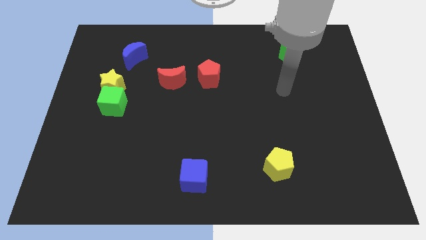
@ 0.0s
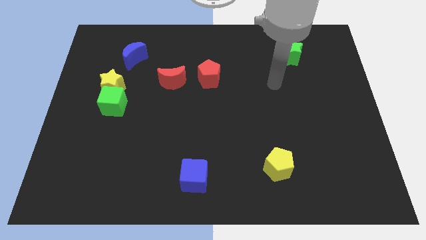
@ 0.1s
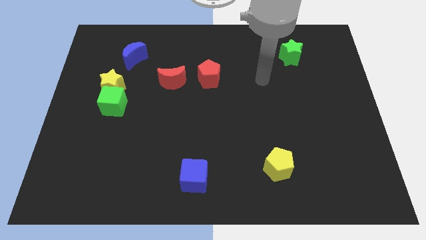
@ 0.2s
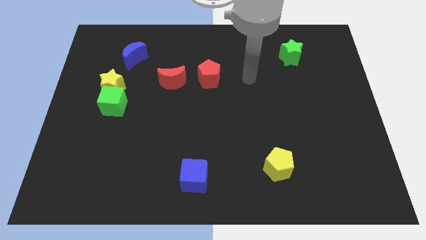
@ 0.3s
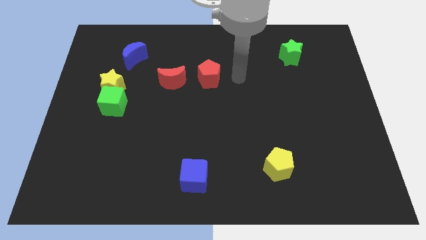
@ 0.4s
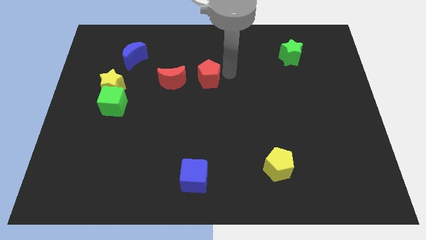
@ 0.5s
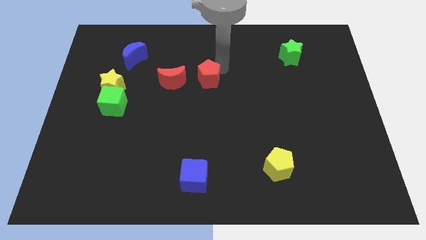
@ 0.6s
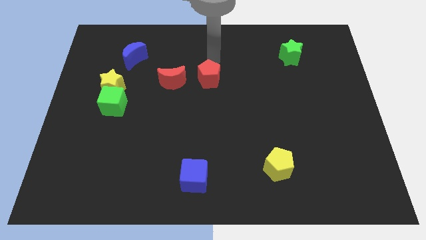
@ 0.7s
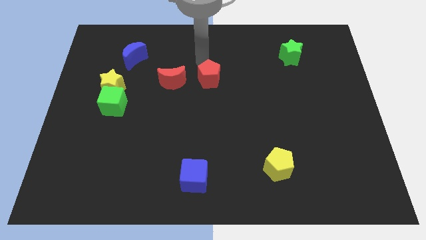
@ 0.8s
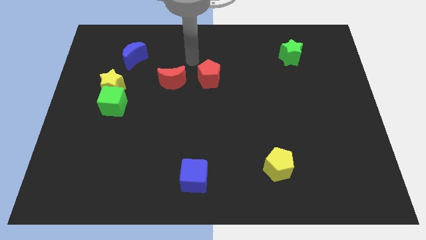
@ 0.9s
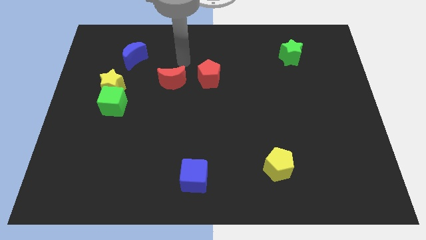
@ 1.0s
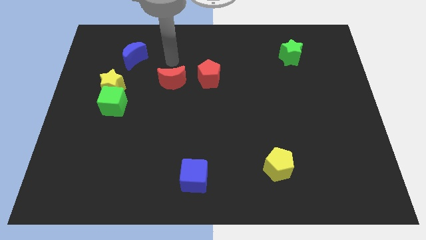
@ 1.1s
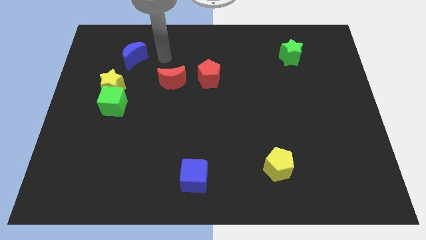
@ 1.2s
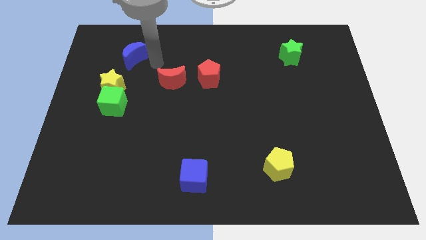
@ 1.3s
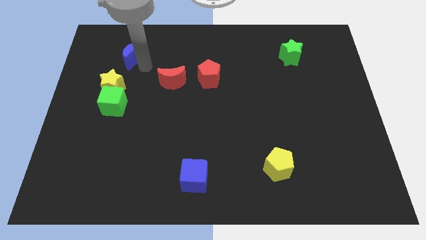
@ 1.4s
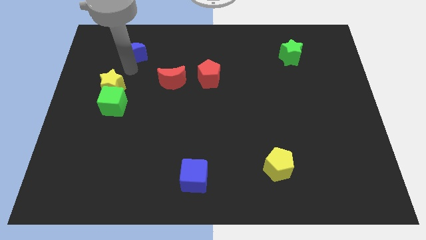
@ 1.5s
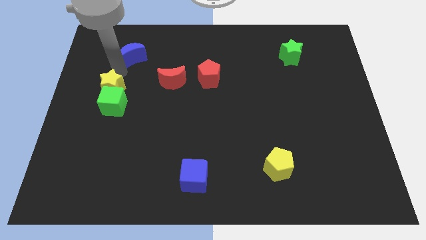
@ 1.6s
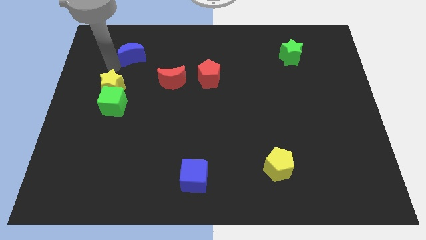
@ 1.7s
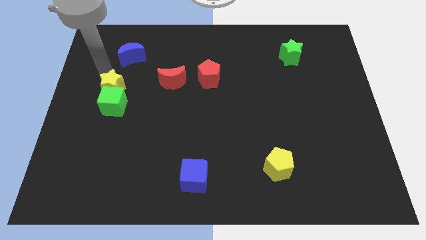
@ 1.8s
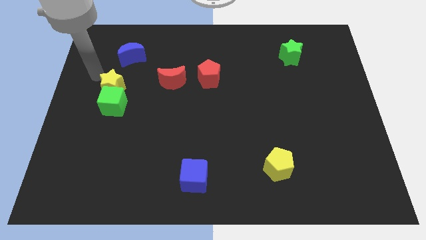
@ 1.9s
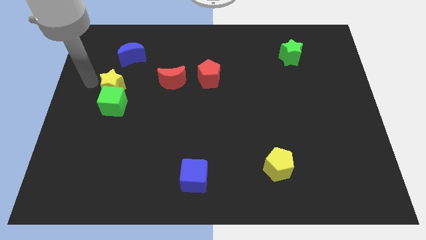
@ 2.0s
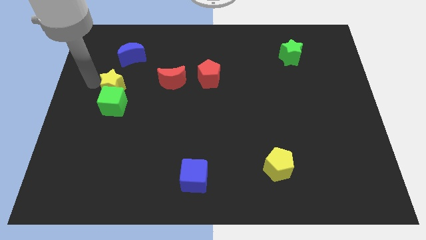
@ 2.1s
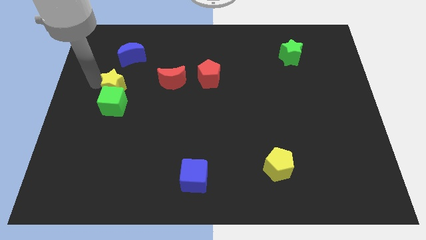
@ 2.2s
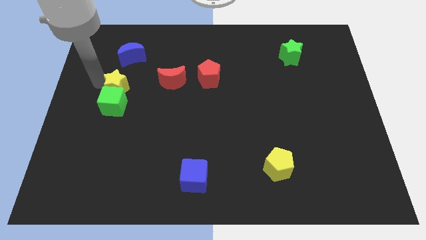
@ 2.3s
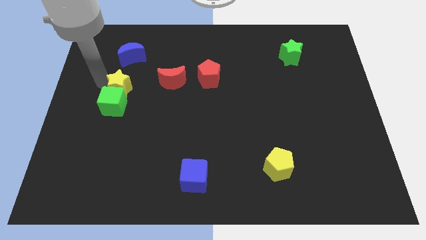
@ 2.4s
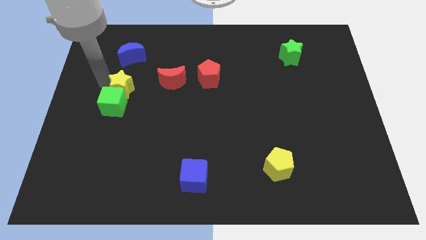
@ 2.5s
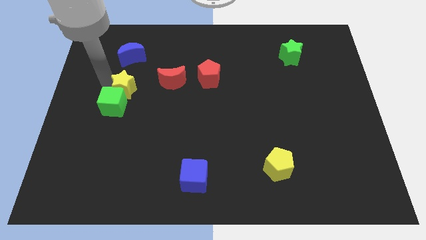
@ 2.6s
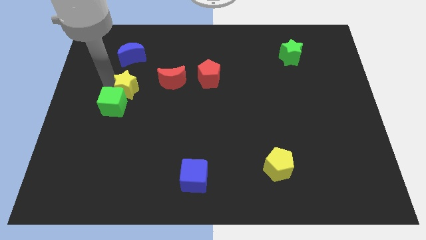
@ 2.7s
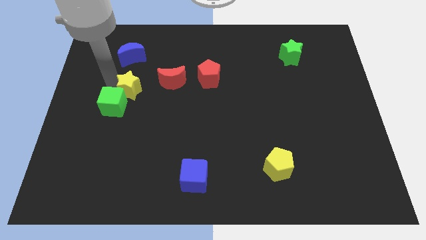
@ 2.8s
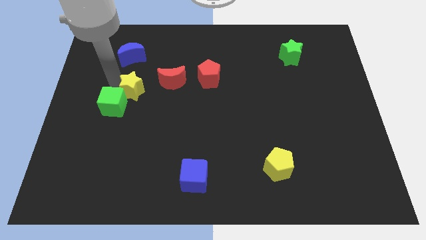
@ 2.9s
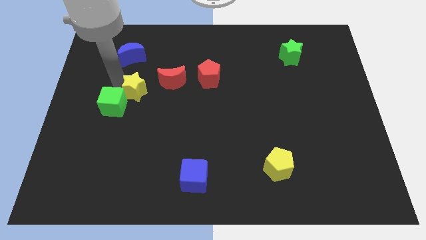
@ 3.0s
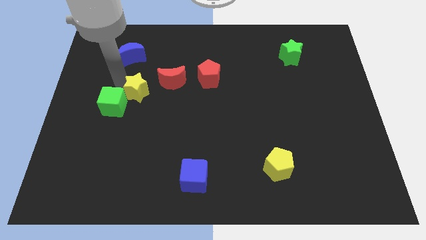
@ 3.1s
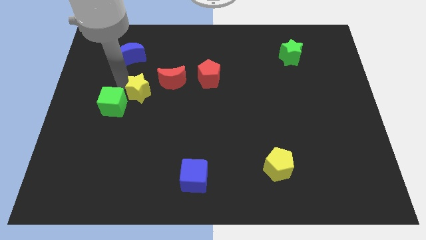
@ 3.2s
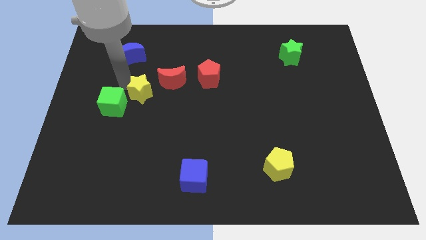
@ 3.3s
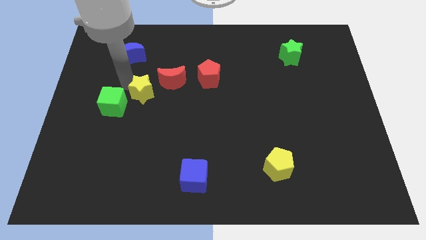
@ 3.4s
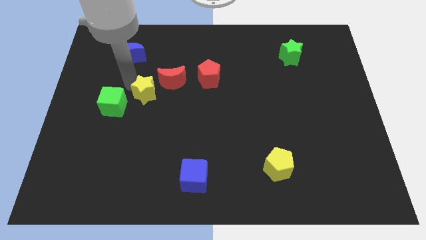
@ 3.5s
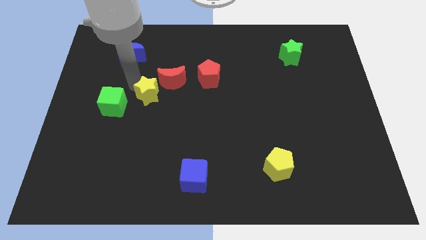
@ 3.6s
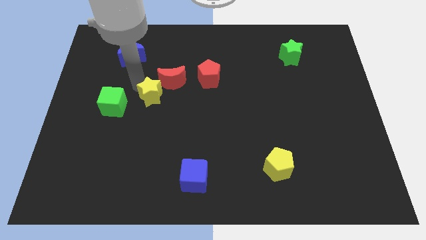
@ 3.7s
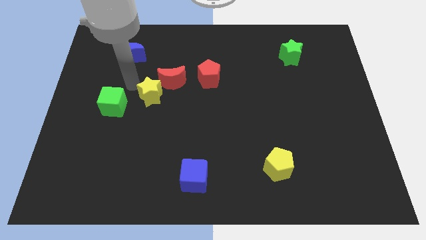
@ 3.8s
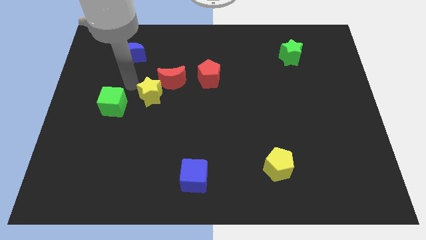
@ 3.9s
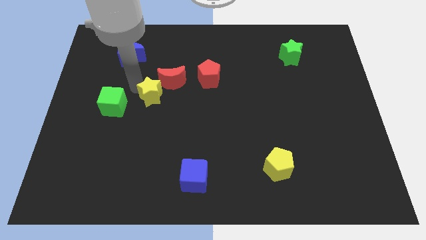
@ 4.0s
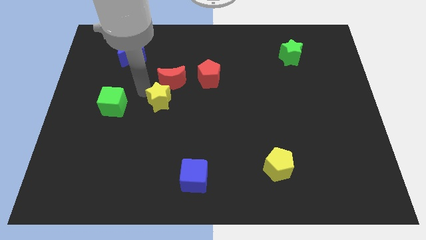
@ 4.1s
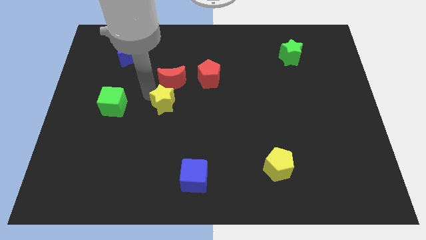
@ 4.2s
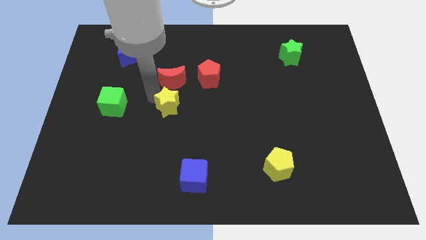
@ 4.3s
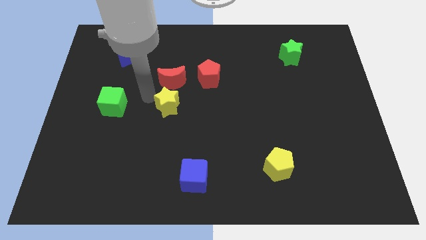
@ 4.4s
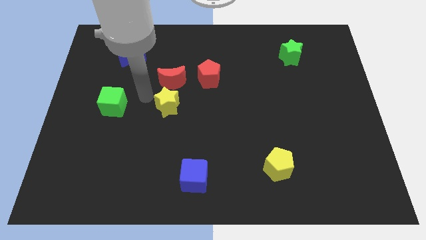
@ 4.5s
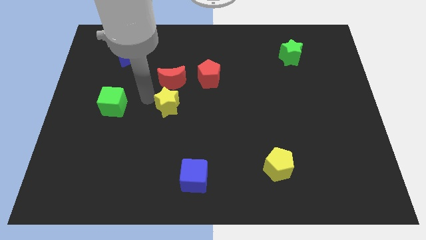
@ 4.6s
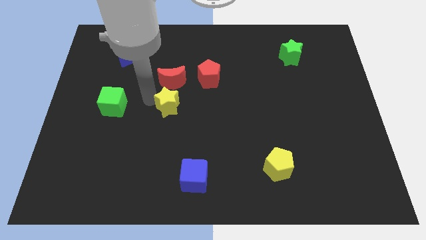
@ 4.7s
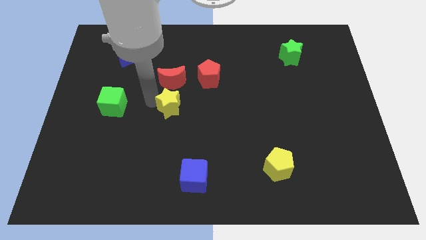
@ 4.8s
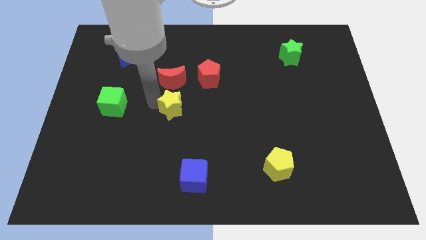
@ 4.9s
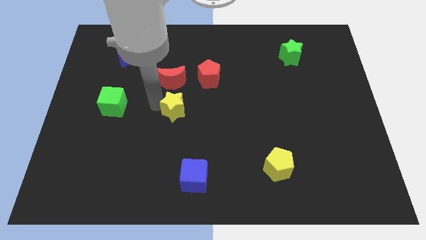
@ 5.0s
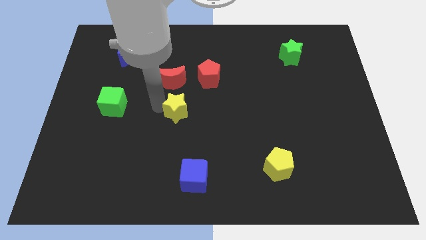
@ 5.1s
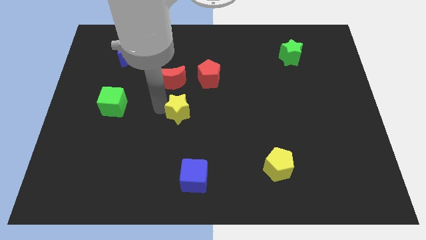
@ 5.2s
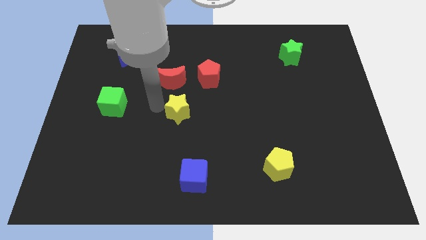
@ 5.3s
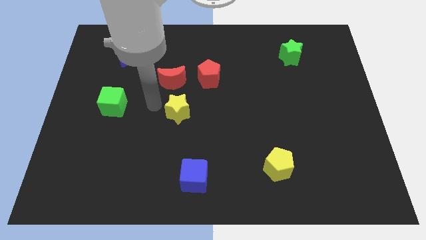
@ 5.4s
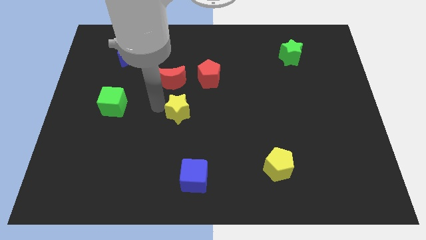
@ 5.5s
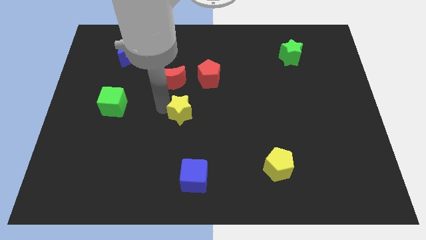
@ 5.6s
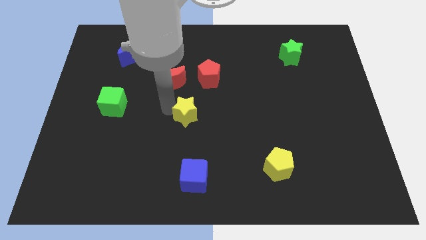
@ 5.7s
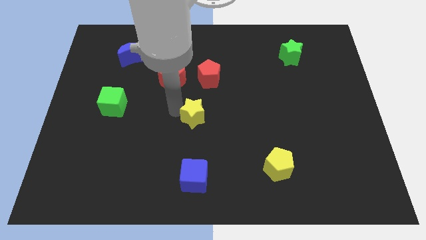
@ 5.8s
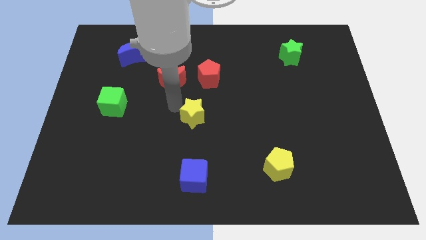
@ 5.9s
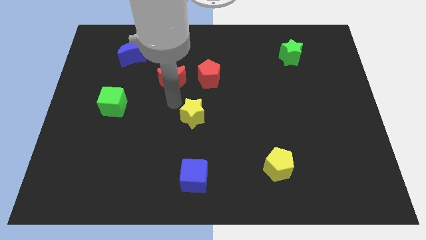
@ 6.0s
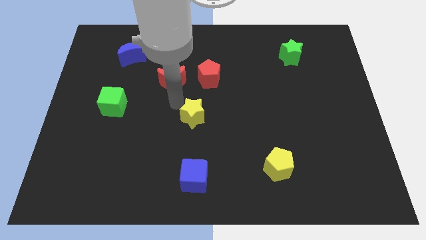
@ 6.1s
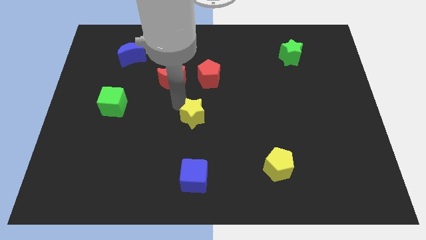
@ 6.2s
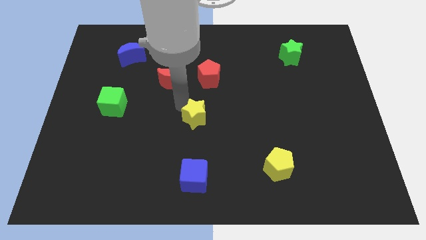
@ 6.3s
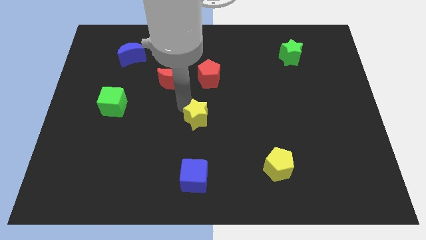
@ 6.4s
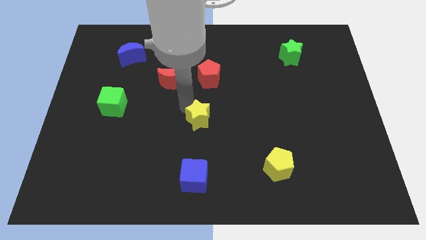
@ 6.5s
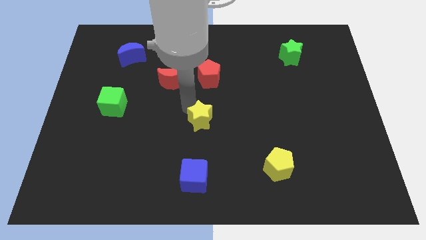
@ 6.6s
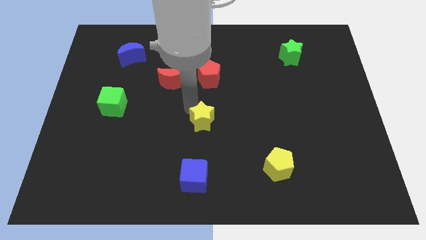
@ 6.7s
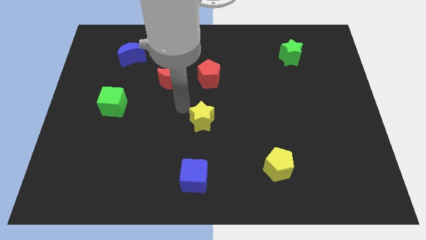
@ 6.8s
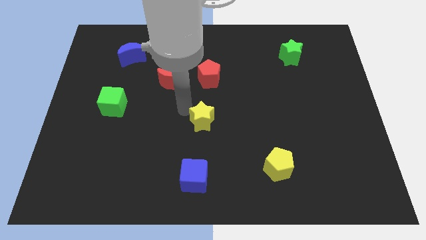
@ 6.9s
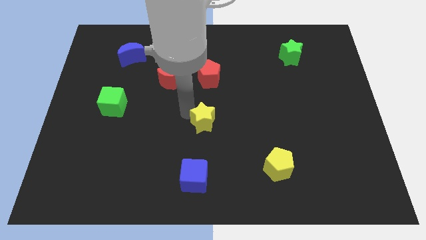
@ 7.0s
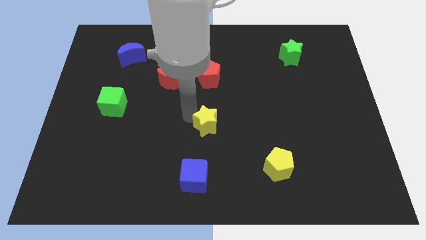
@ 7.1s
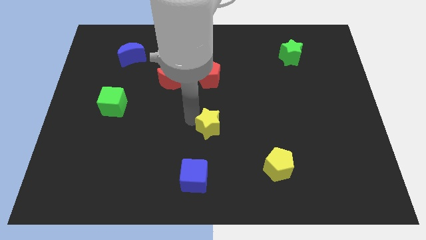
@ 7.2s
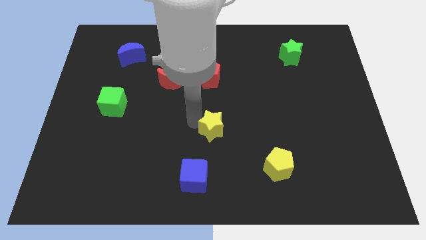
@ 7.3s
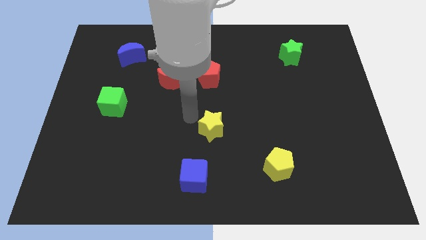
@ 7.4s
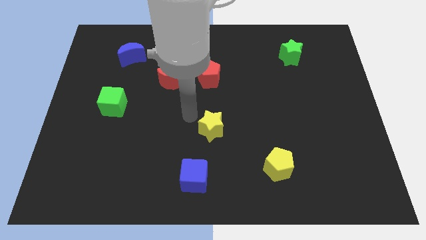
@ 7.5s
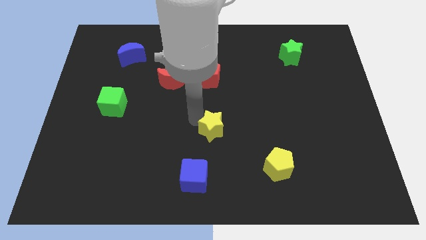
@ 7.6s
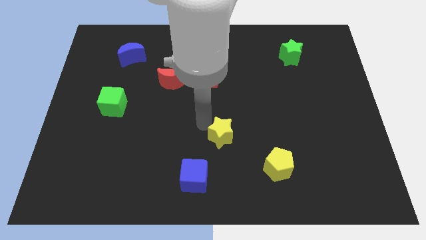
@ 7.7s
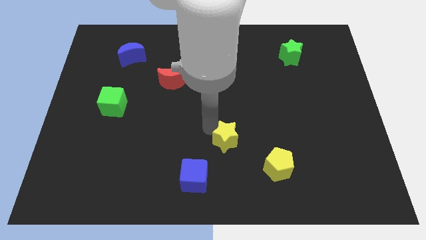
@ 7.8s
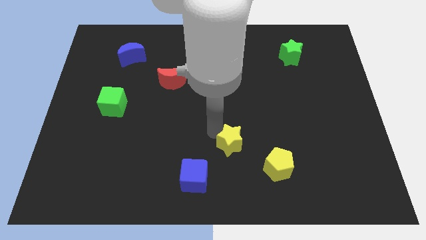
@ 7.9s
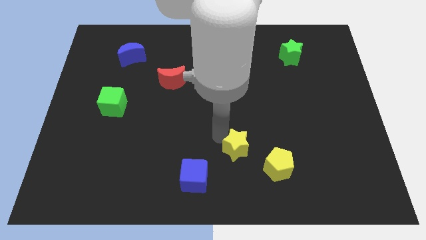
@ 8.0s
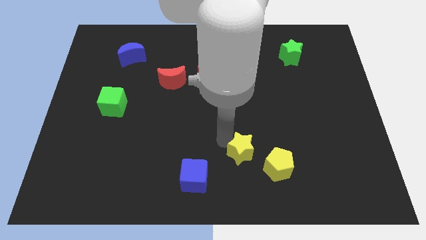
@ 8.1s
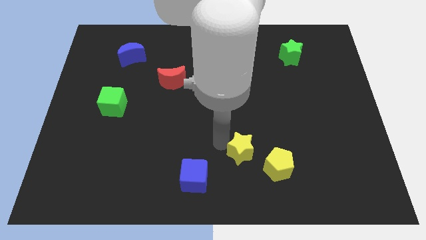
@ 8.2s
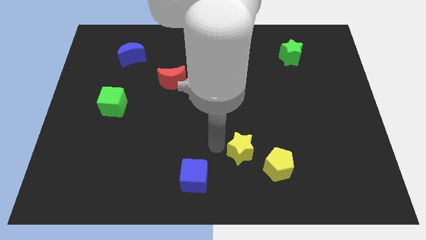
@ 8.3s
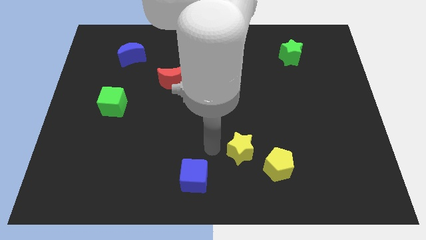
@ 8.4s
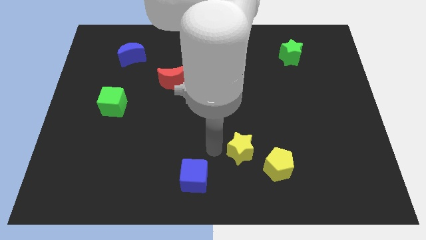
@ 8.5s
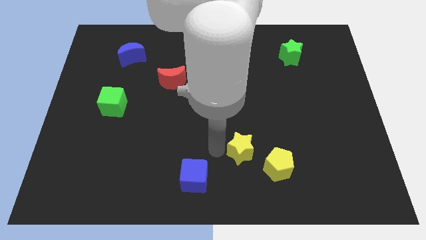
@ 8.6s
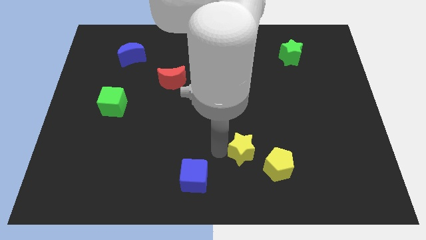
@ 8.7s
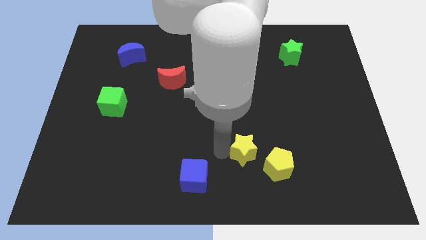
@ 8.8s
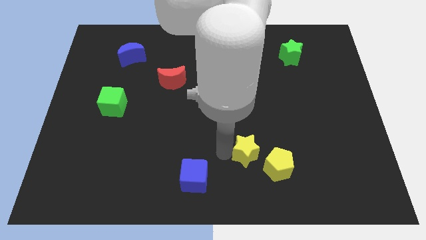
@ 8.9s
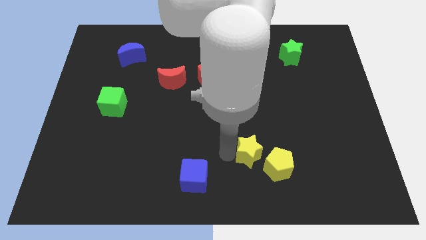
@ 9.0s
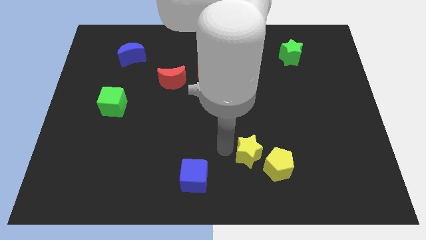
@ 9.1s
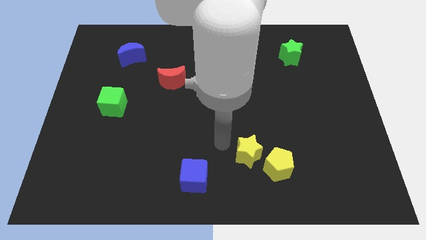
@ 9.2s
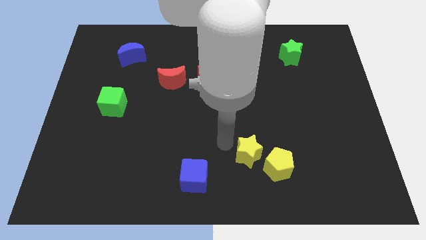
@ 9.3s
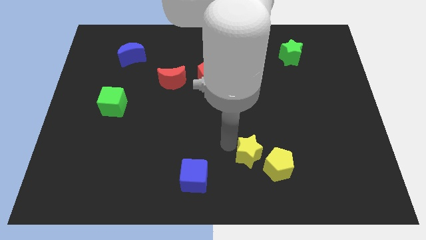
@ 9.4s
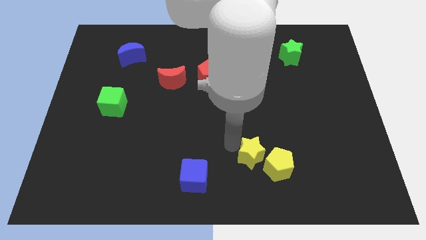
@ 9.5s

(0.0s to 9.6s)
put the yellow star next to the yellow pentagon
